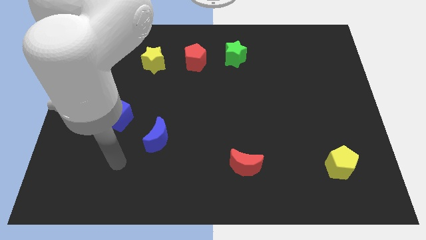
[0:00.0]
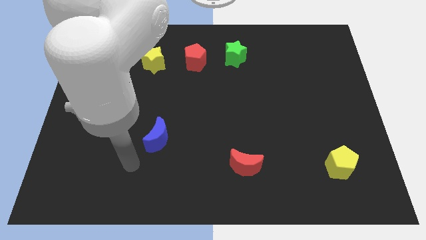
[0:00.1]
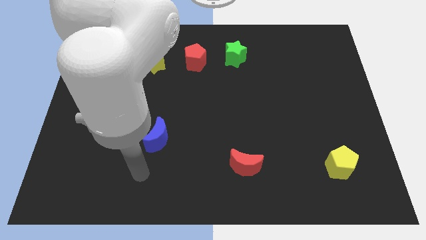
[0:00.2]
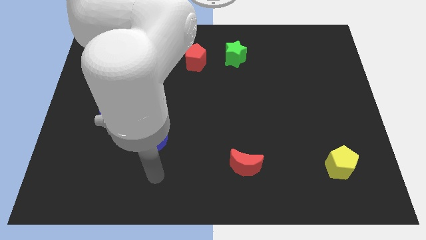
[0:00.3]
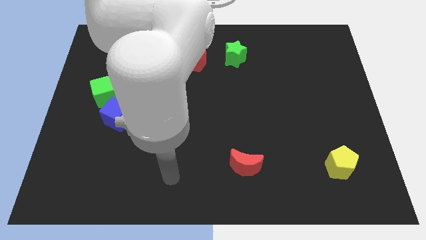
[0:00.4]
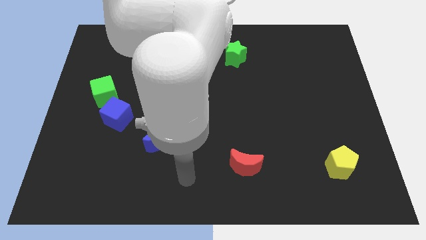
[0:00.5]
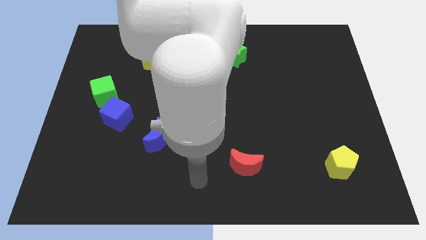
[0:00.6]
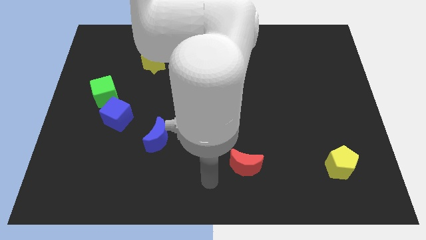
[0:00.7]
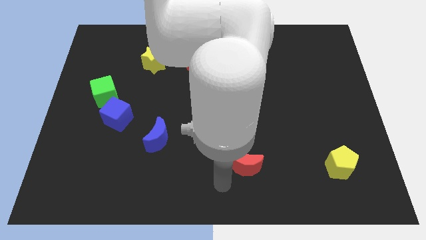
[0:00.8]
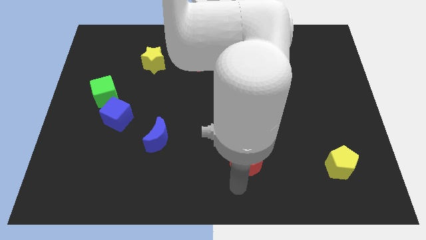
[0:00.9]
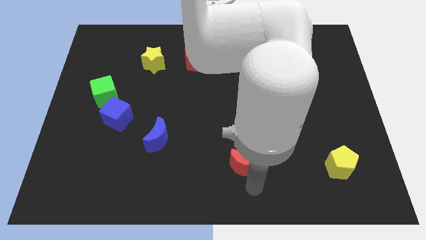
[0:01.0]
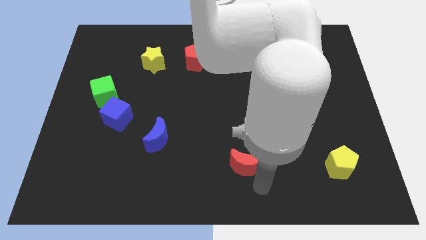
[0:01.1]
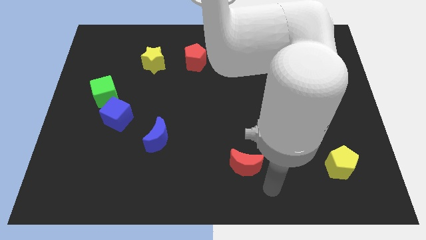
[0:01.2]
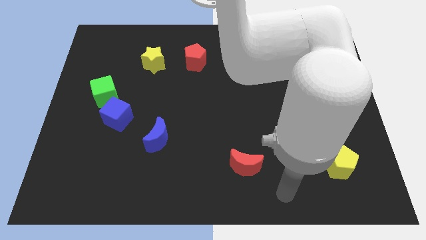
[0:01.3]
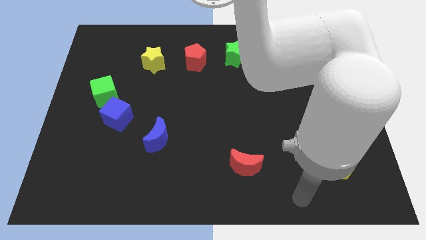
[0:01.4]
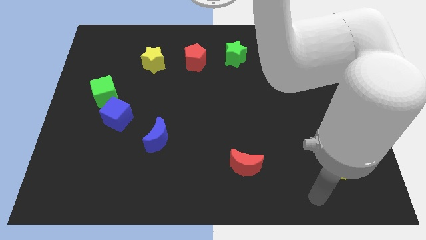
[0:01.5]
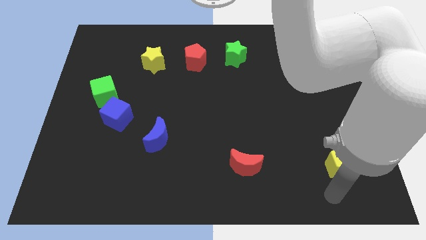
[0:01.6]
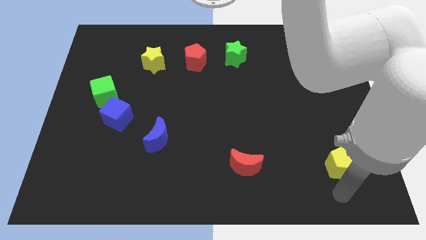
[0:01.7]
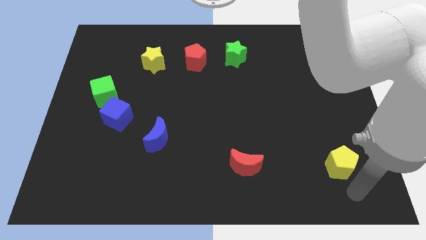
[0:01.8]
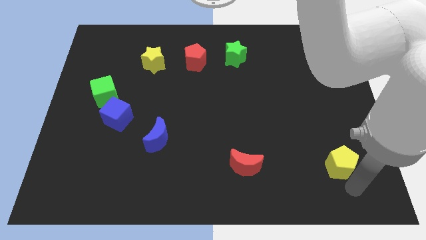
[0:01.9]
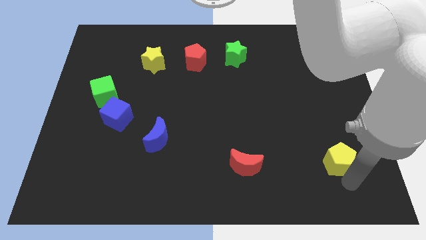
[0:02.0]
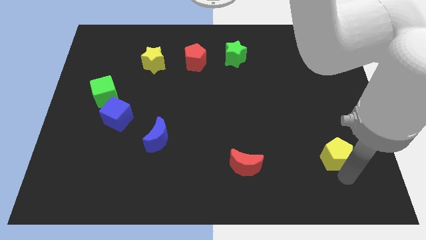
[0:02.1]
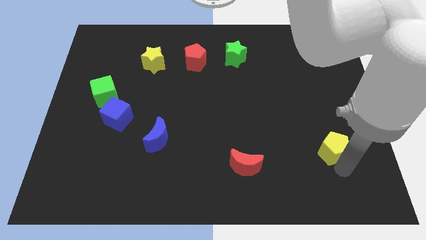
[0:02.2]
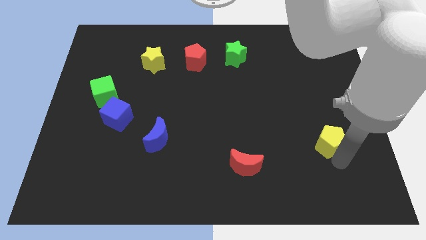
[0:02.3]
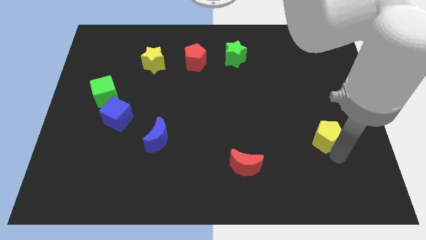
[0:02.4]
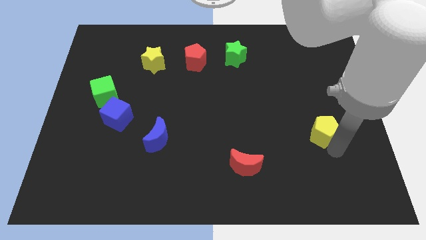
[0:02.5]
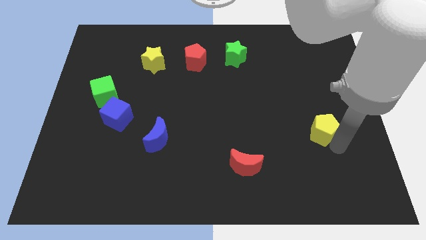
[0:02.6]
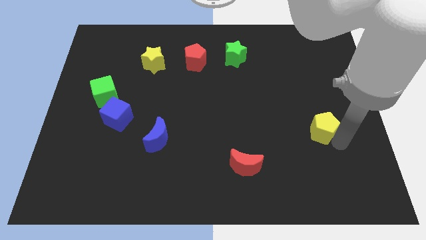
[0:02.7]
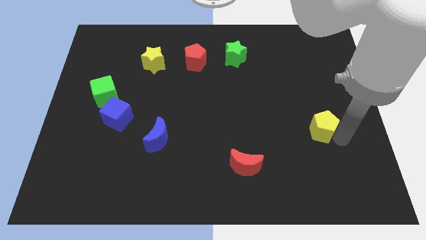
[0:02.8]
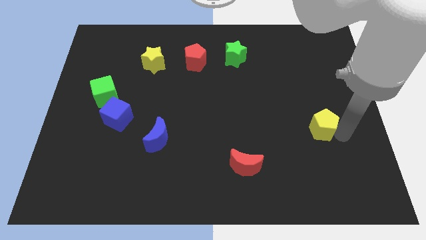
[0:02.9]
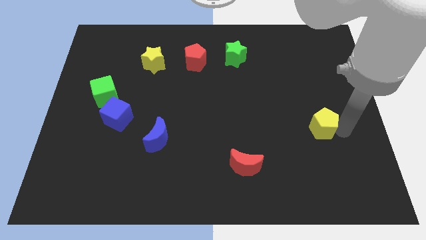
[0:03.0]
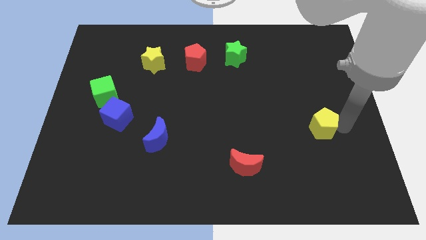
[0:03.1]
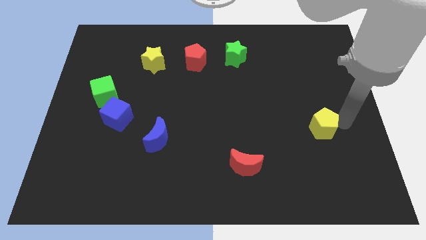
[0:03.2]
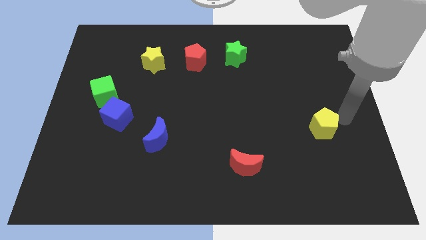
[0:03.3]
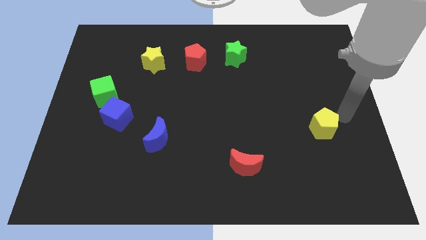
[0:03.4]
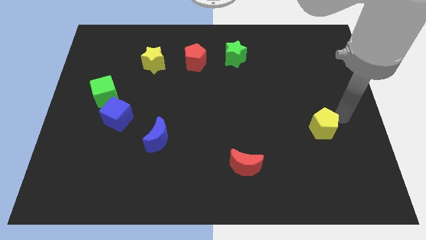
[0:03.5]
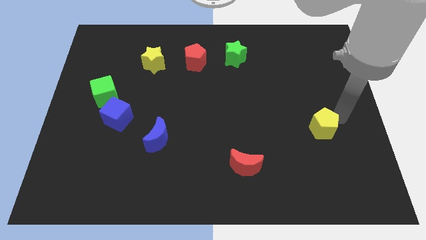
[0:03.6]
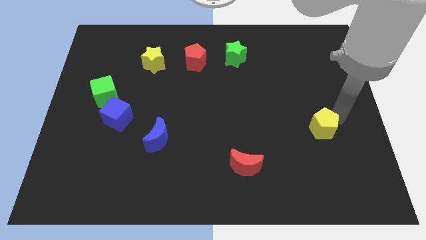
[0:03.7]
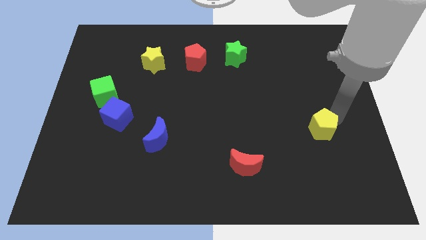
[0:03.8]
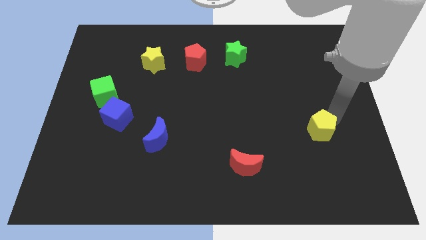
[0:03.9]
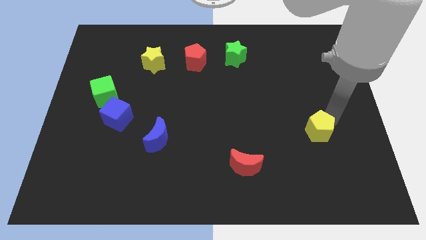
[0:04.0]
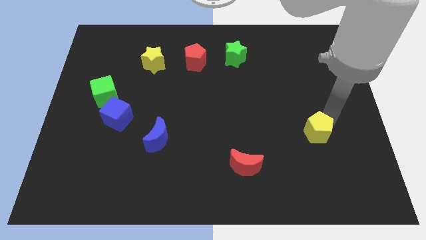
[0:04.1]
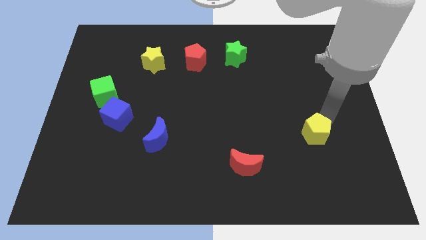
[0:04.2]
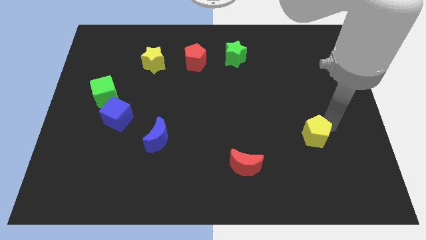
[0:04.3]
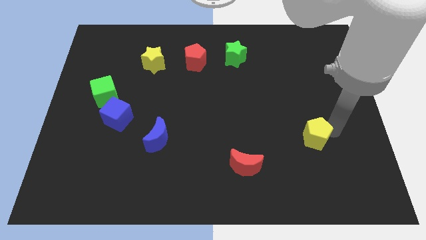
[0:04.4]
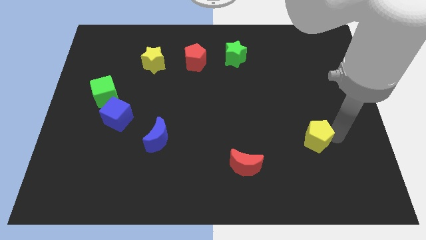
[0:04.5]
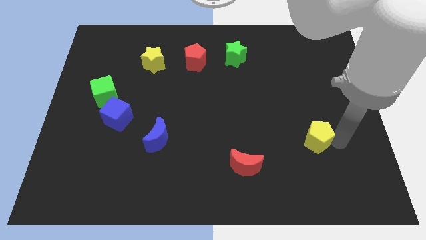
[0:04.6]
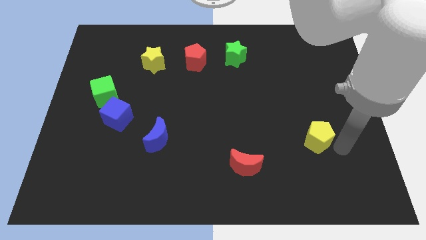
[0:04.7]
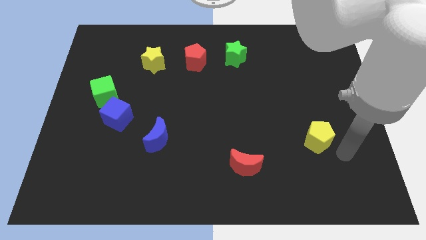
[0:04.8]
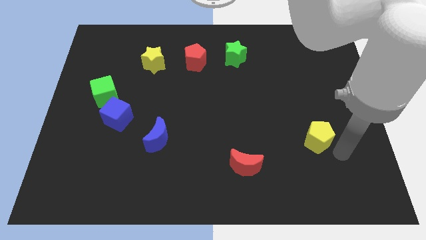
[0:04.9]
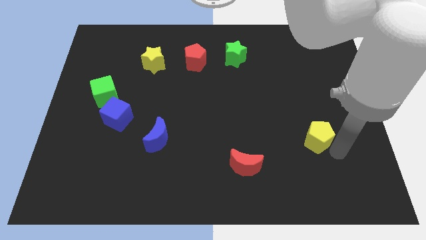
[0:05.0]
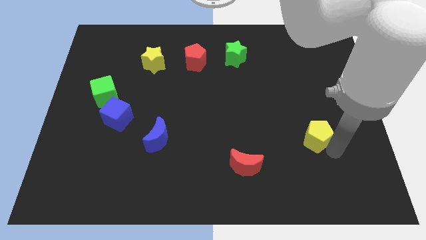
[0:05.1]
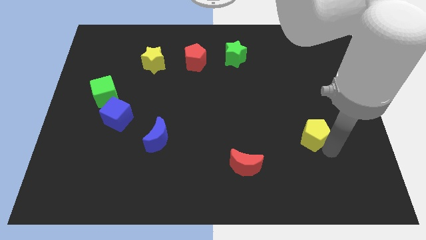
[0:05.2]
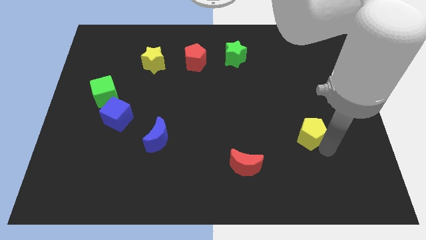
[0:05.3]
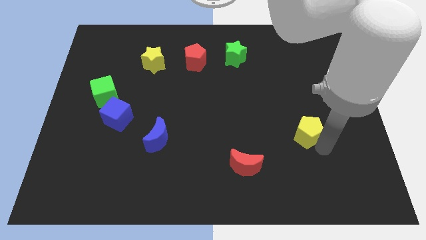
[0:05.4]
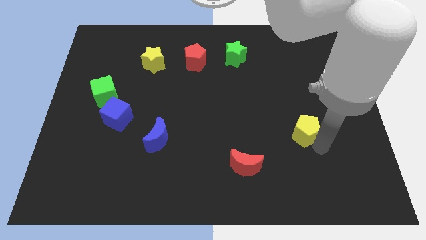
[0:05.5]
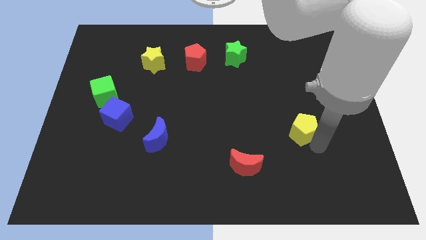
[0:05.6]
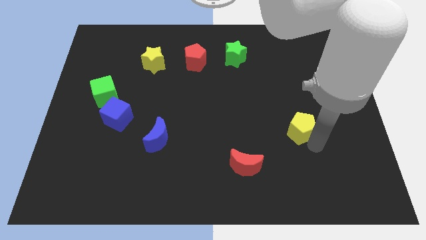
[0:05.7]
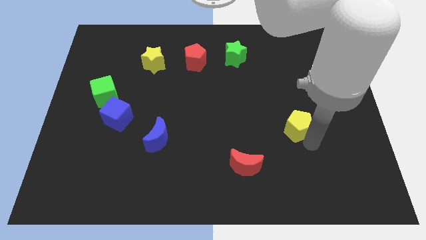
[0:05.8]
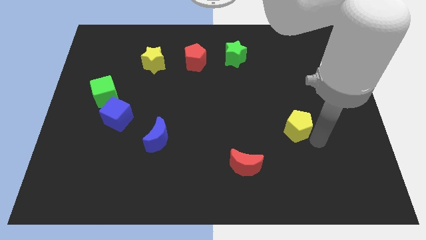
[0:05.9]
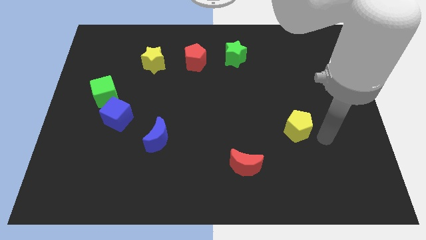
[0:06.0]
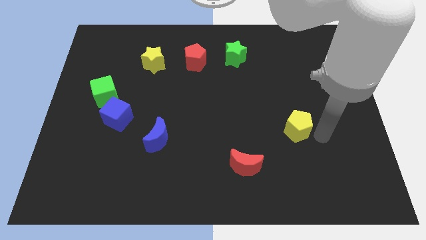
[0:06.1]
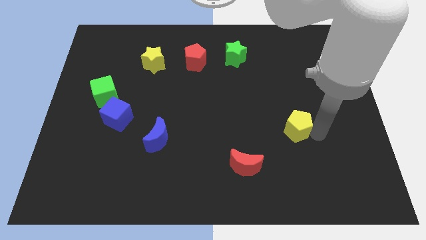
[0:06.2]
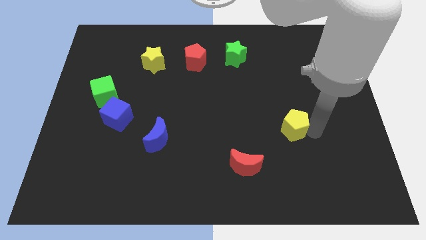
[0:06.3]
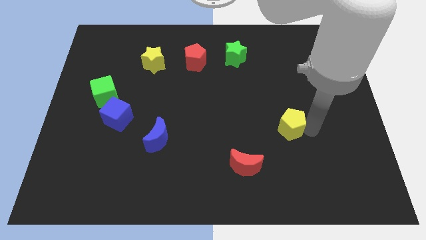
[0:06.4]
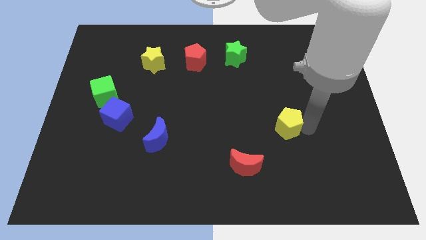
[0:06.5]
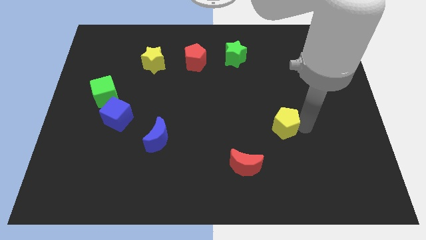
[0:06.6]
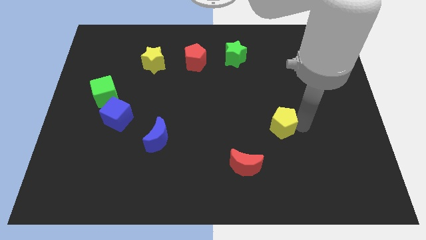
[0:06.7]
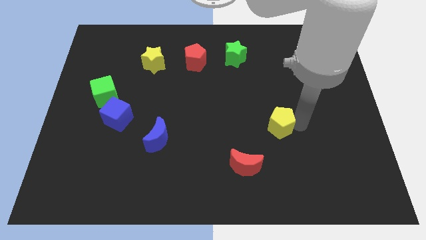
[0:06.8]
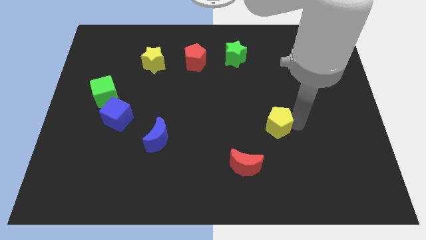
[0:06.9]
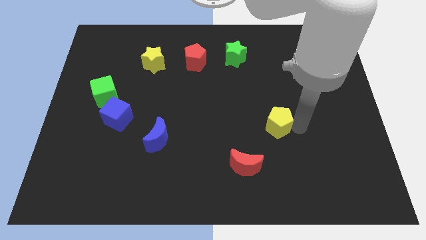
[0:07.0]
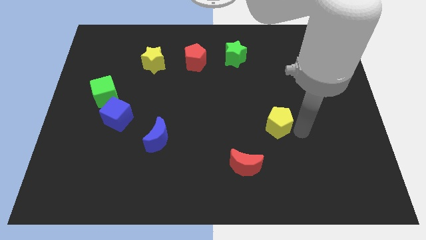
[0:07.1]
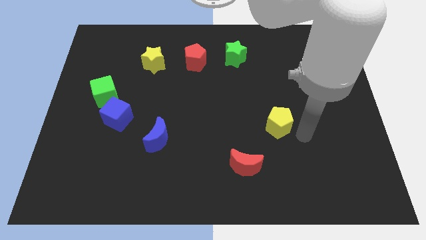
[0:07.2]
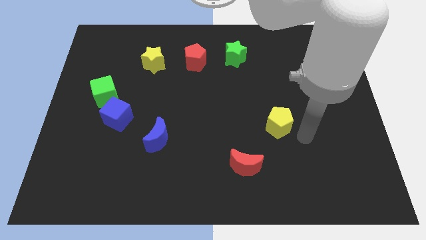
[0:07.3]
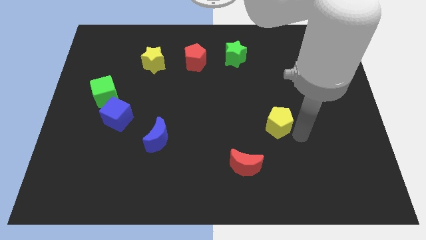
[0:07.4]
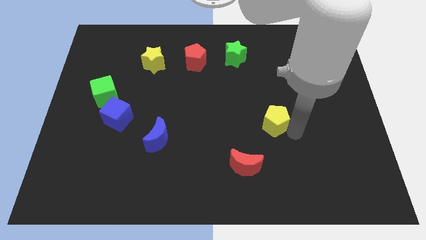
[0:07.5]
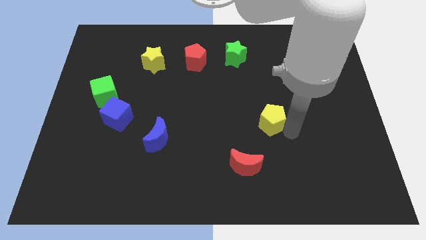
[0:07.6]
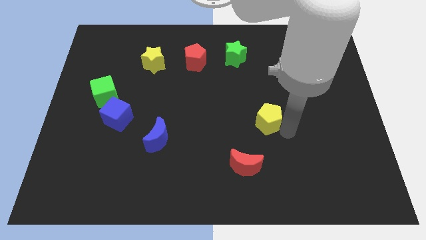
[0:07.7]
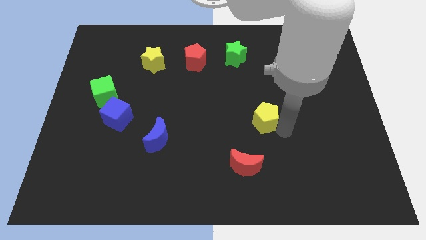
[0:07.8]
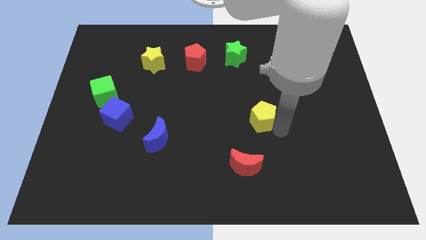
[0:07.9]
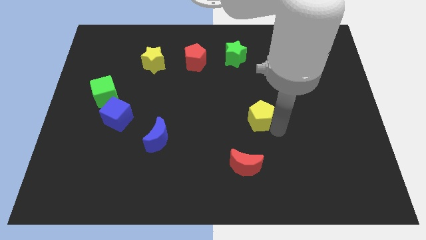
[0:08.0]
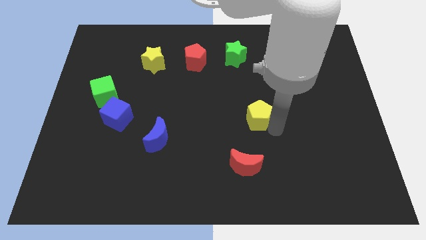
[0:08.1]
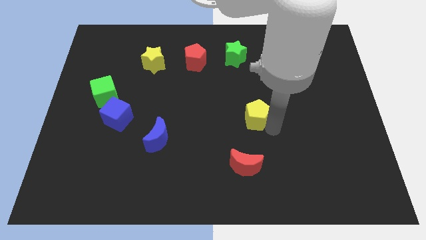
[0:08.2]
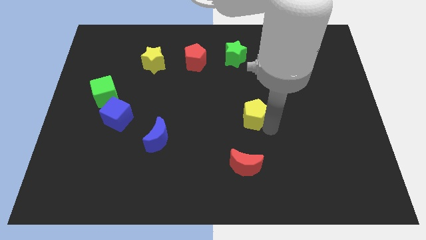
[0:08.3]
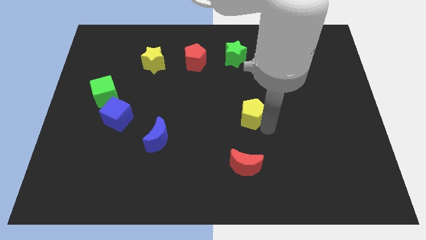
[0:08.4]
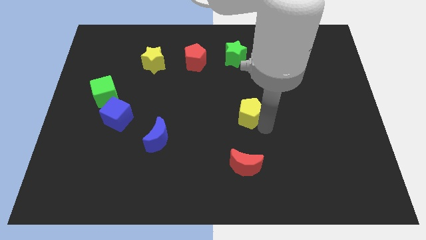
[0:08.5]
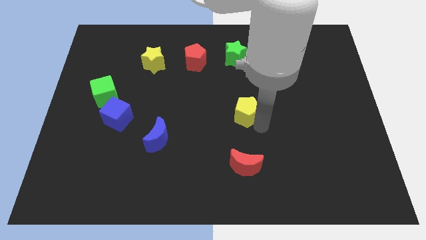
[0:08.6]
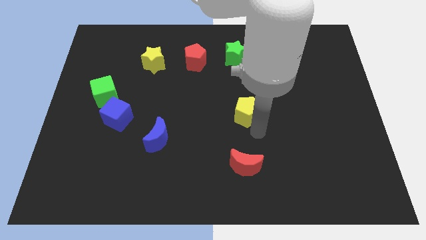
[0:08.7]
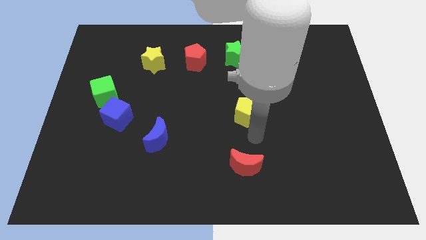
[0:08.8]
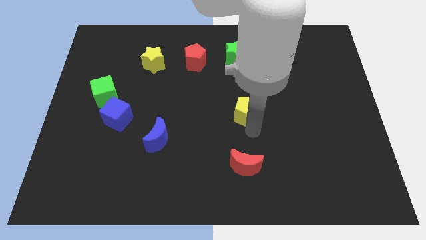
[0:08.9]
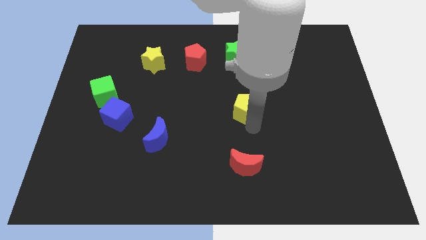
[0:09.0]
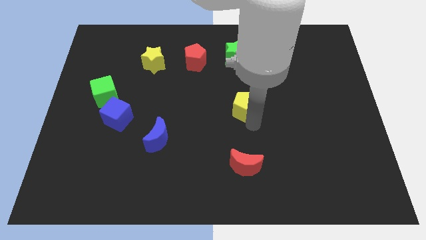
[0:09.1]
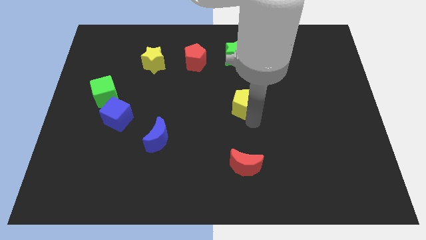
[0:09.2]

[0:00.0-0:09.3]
put the yellow pentagon below the green star
